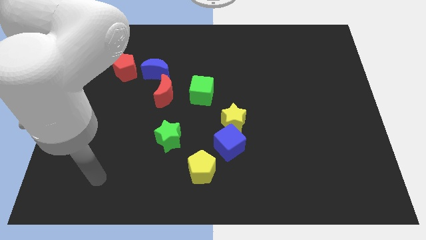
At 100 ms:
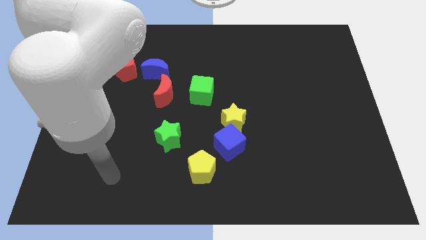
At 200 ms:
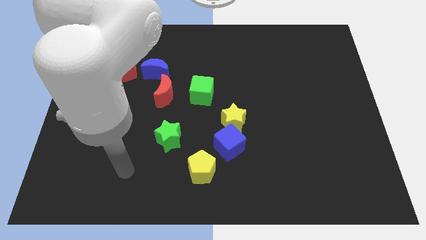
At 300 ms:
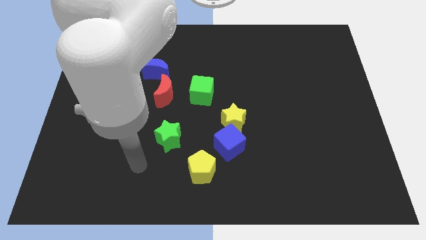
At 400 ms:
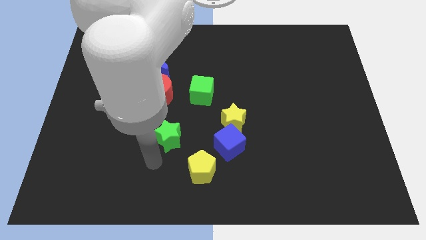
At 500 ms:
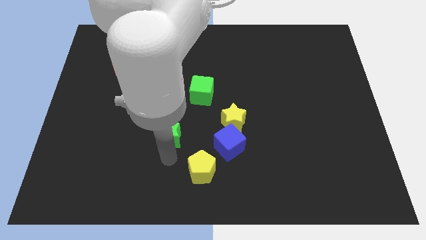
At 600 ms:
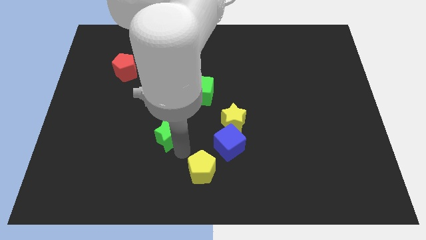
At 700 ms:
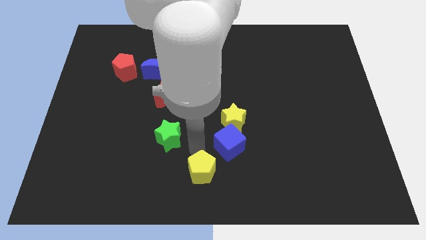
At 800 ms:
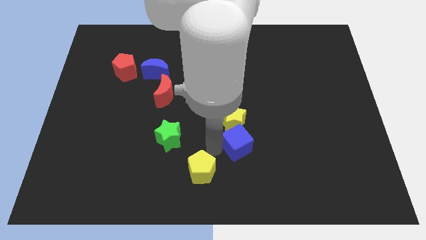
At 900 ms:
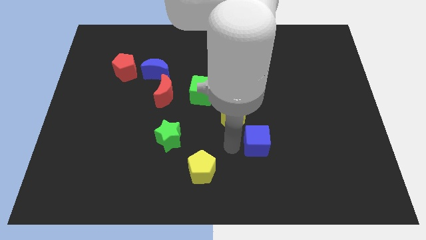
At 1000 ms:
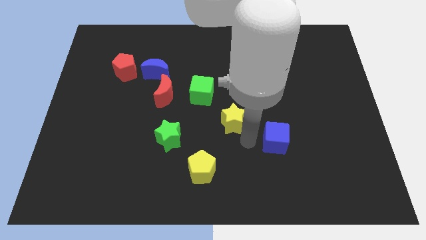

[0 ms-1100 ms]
move the yellow star away from the blue cube

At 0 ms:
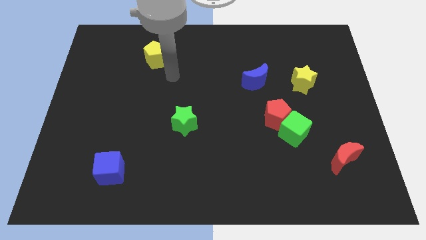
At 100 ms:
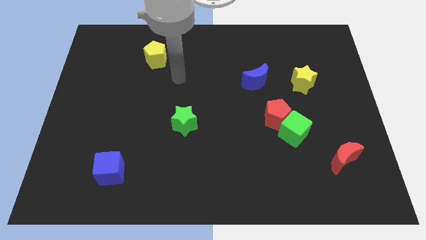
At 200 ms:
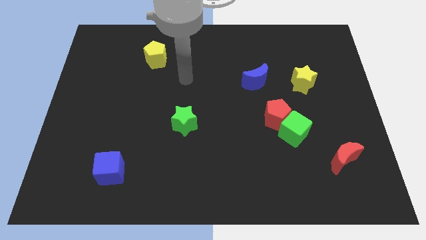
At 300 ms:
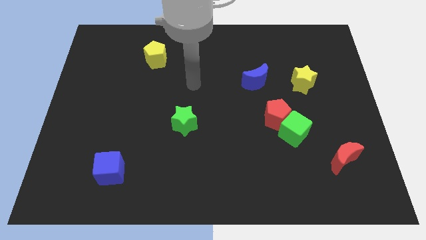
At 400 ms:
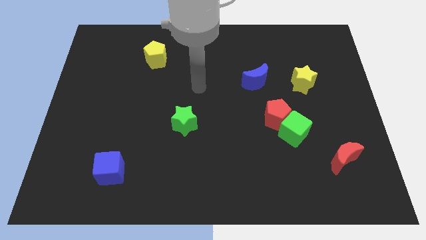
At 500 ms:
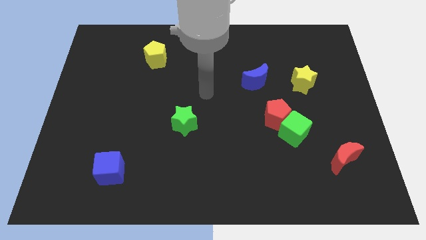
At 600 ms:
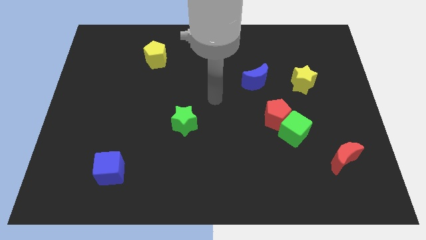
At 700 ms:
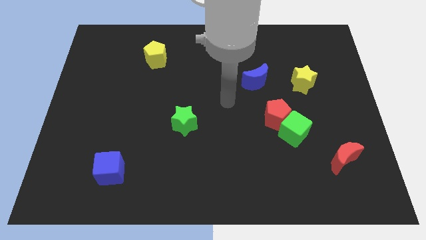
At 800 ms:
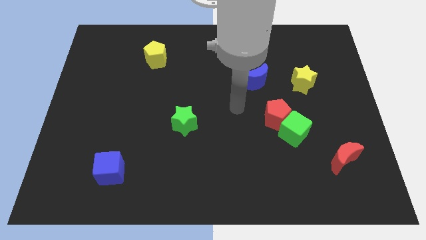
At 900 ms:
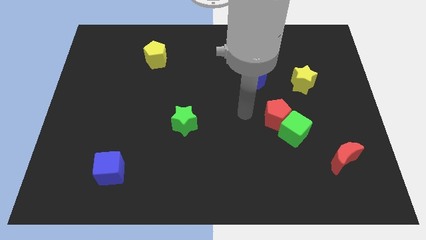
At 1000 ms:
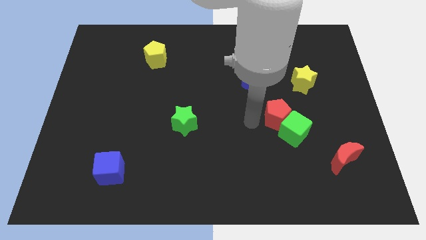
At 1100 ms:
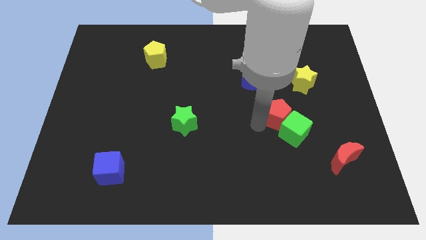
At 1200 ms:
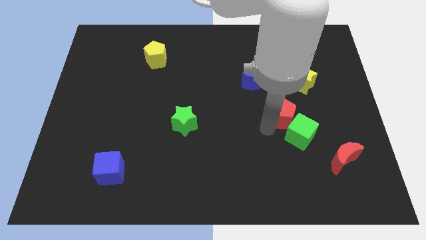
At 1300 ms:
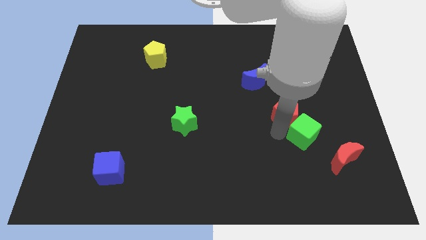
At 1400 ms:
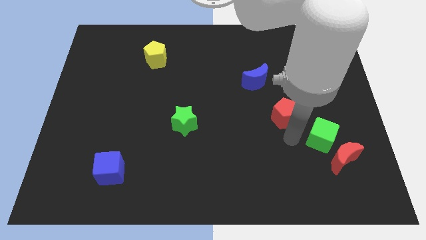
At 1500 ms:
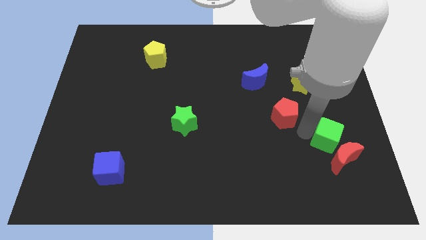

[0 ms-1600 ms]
pull the red pentagon apart from the green cube

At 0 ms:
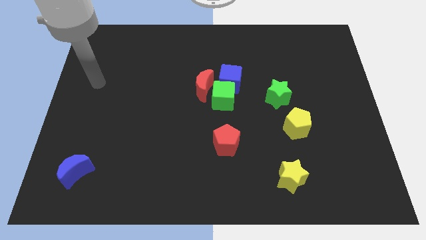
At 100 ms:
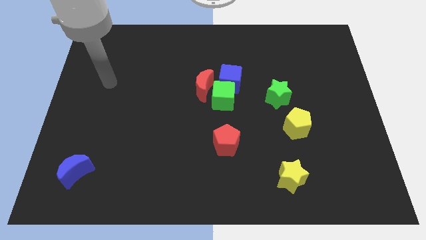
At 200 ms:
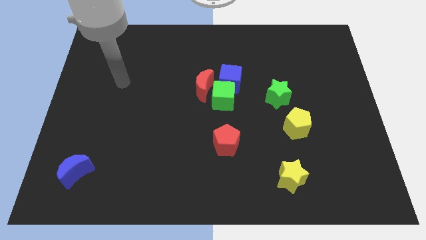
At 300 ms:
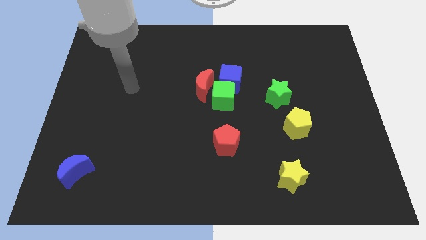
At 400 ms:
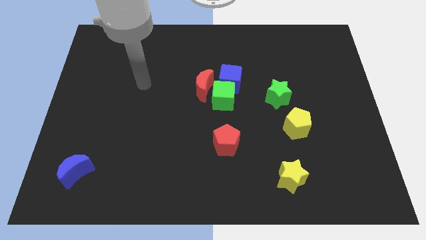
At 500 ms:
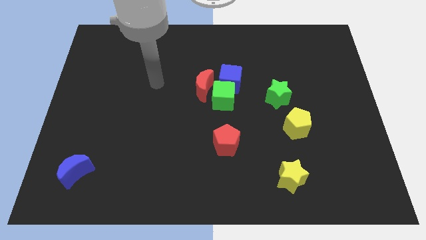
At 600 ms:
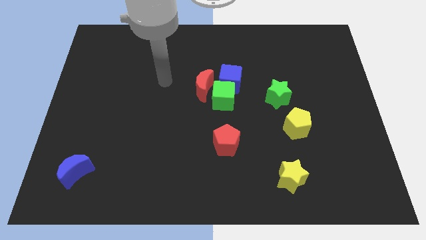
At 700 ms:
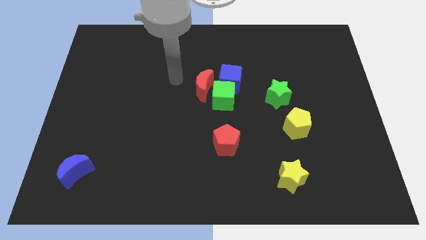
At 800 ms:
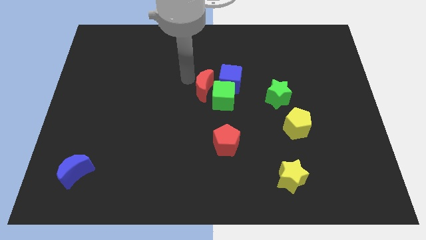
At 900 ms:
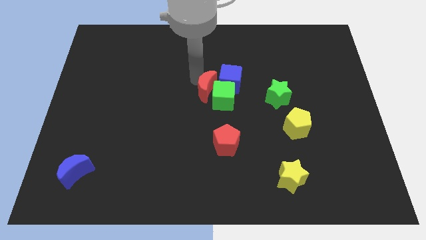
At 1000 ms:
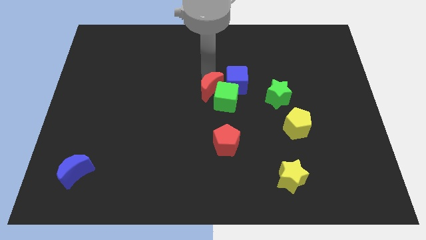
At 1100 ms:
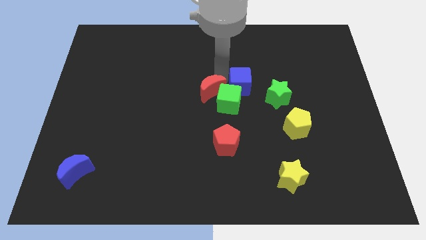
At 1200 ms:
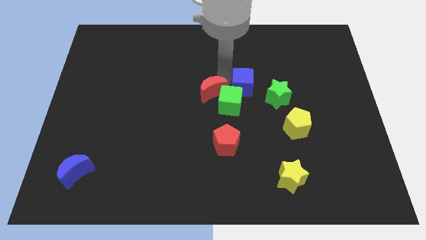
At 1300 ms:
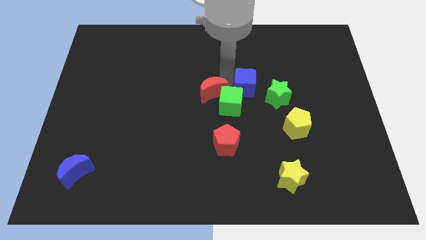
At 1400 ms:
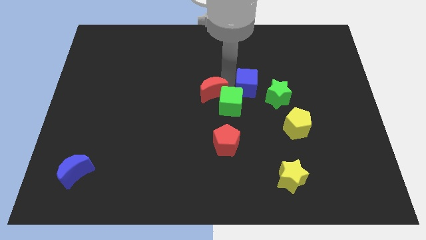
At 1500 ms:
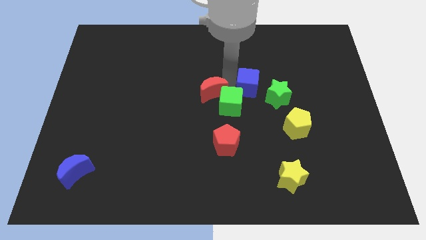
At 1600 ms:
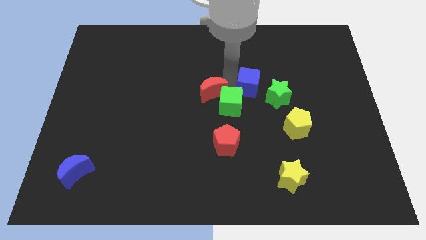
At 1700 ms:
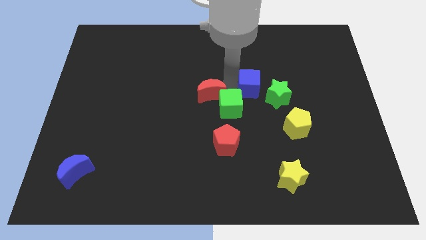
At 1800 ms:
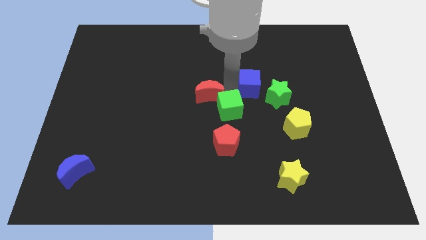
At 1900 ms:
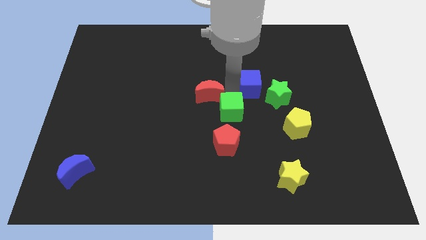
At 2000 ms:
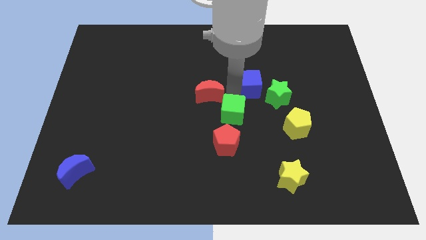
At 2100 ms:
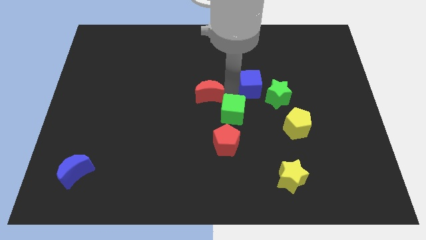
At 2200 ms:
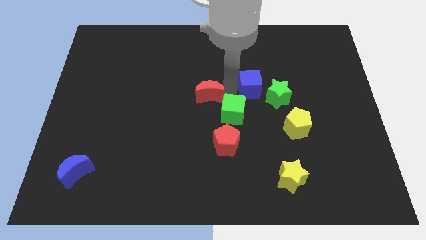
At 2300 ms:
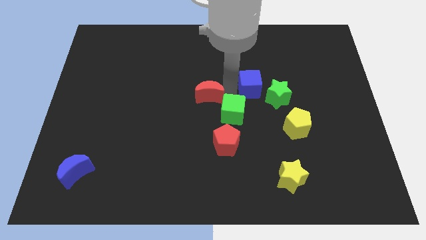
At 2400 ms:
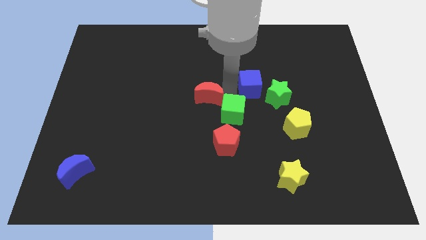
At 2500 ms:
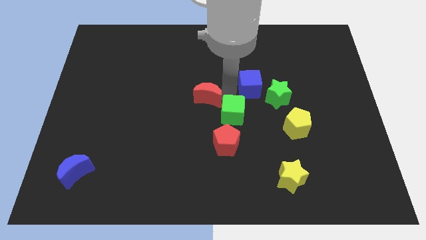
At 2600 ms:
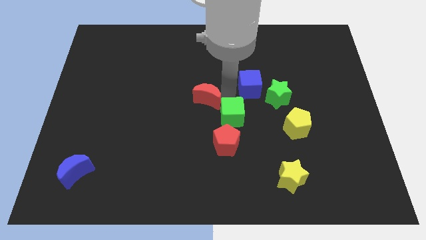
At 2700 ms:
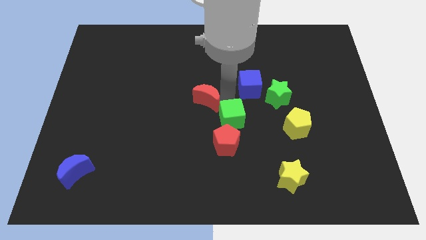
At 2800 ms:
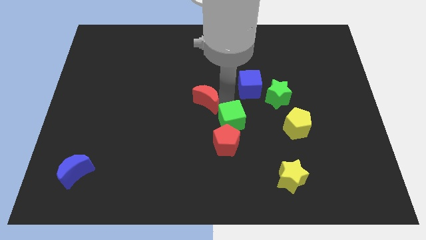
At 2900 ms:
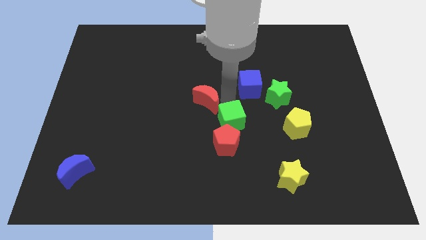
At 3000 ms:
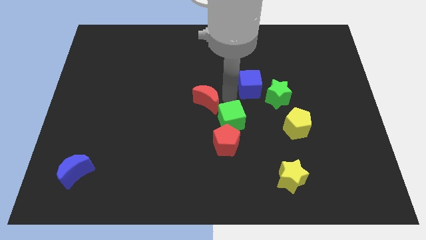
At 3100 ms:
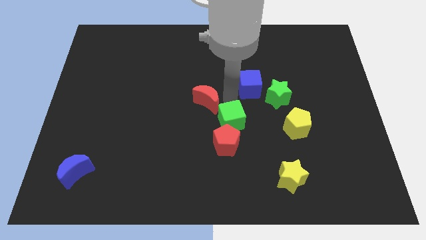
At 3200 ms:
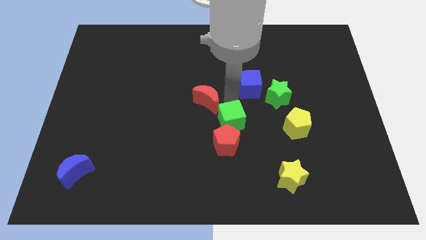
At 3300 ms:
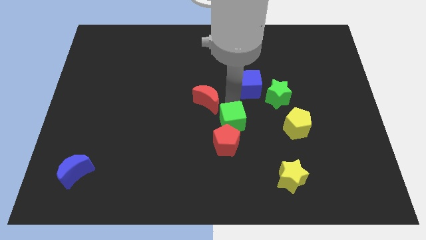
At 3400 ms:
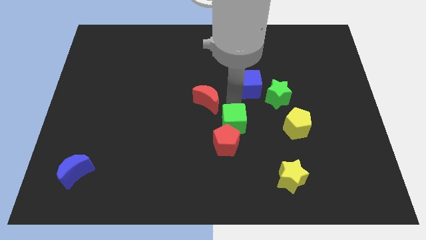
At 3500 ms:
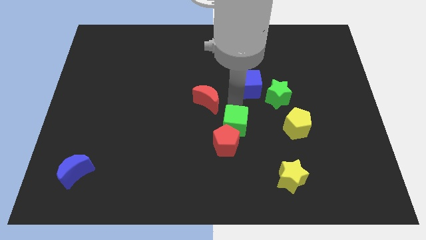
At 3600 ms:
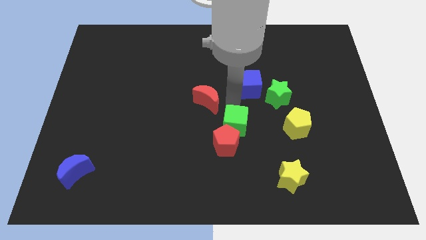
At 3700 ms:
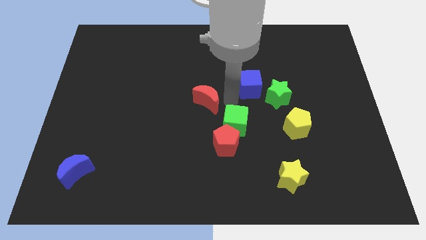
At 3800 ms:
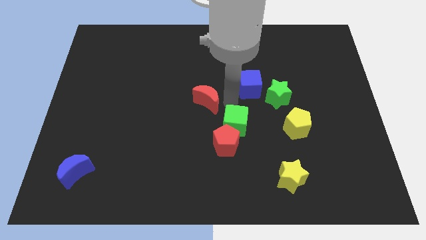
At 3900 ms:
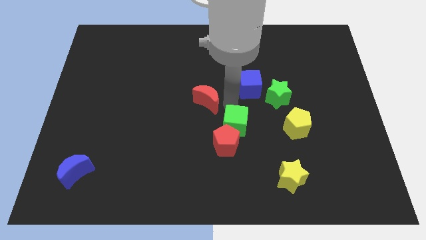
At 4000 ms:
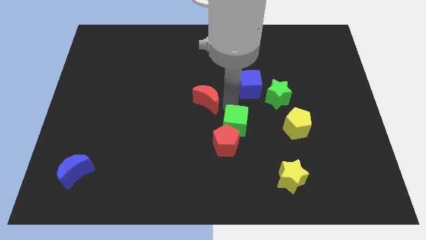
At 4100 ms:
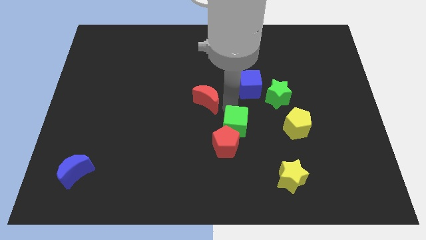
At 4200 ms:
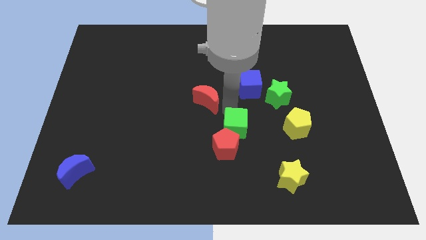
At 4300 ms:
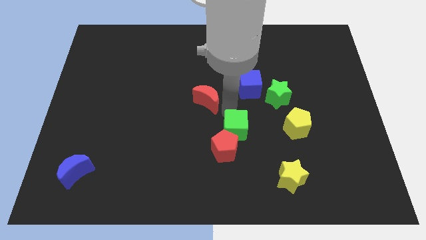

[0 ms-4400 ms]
pull the green cube apart from the blue cube and red moon

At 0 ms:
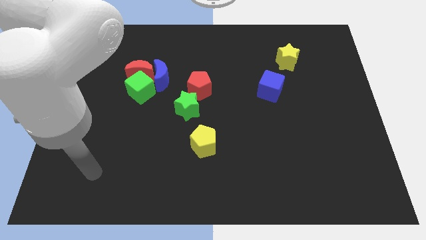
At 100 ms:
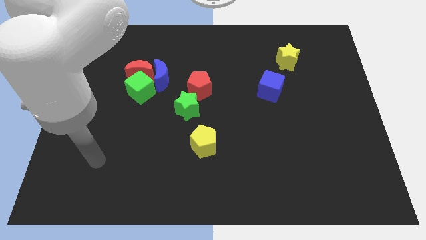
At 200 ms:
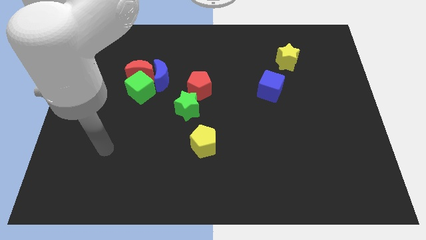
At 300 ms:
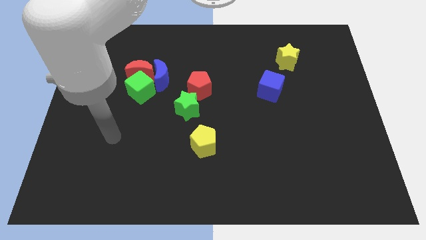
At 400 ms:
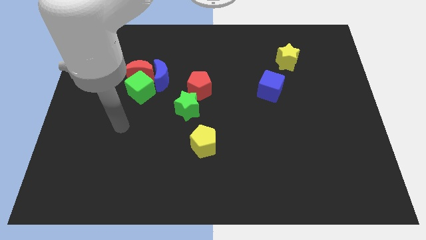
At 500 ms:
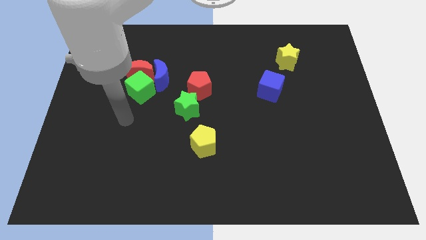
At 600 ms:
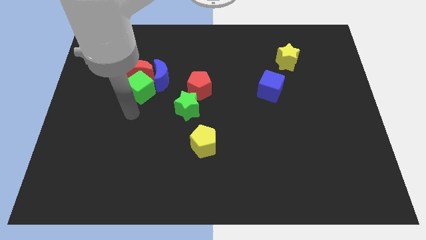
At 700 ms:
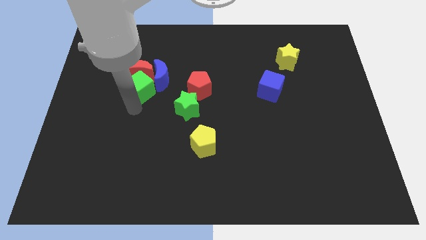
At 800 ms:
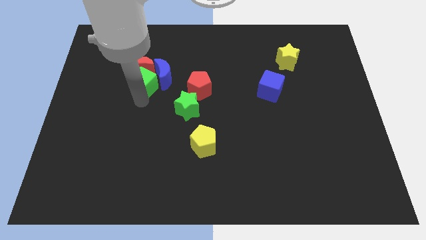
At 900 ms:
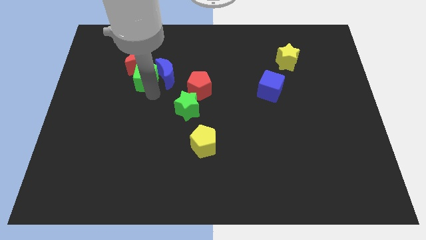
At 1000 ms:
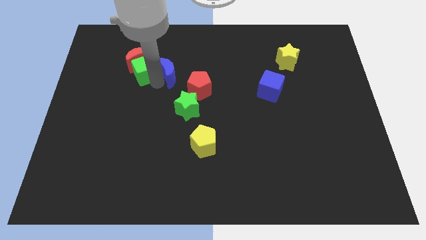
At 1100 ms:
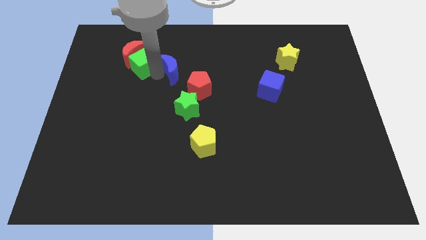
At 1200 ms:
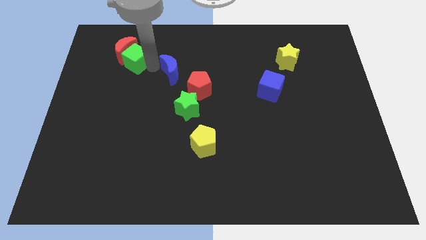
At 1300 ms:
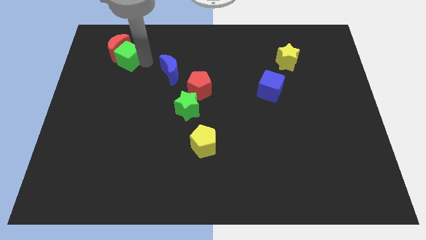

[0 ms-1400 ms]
separate the red moon from the green cube and blue moon

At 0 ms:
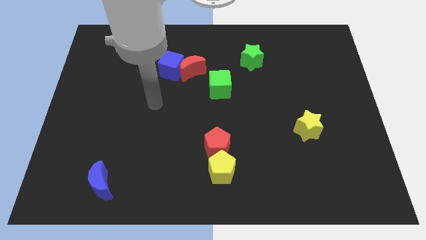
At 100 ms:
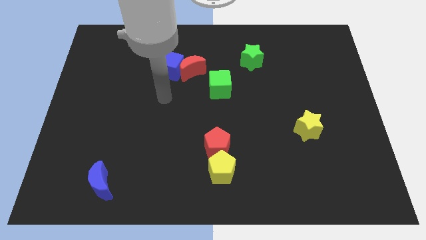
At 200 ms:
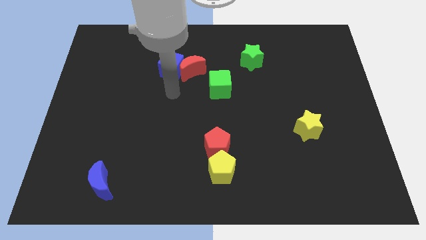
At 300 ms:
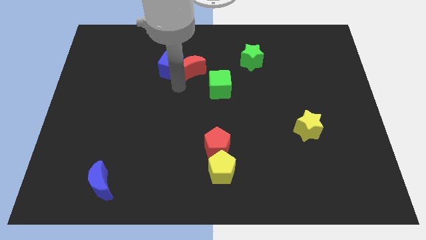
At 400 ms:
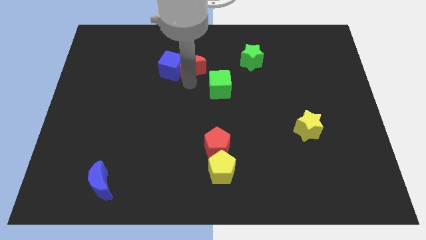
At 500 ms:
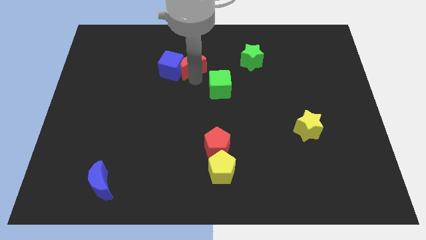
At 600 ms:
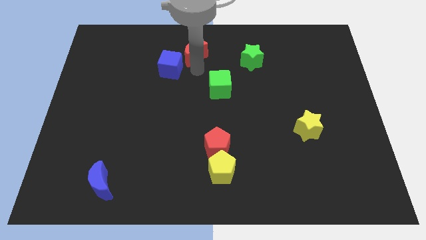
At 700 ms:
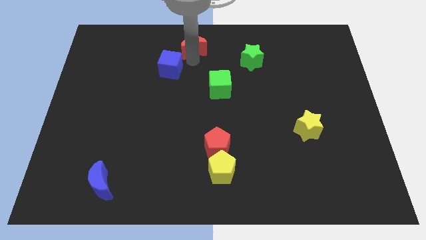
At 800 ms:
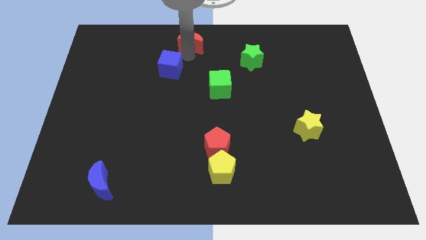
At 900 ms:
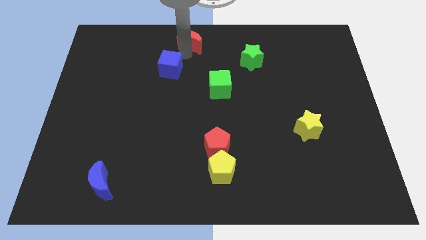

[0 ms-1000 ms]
pull the blue cube apart from the red moon
